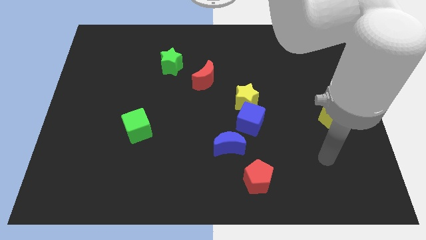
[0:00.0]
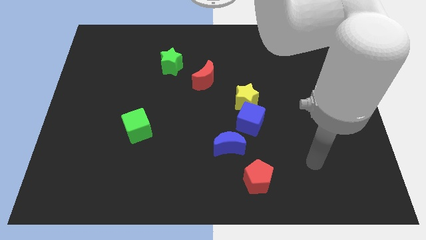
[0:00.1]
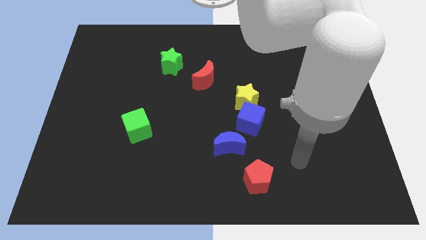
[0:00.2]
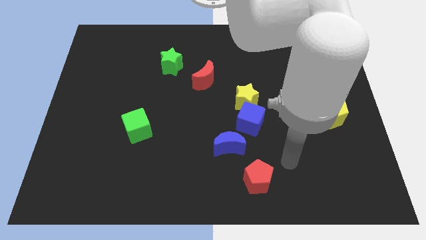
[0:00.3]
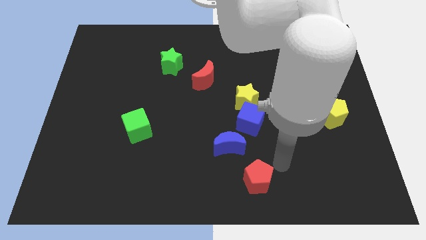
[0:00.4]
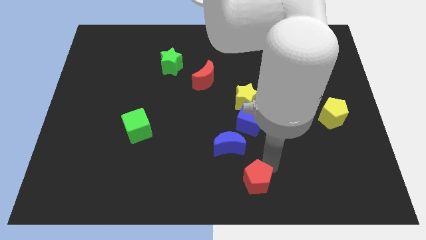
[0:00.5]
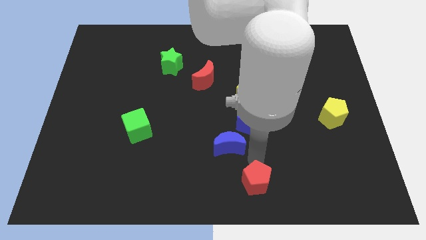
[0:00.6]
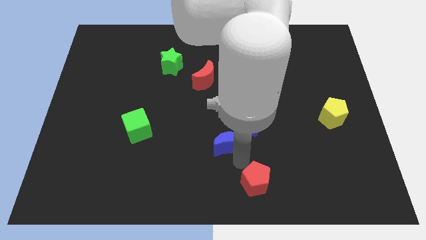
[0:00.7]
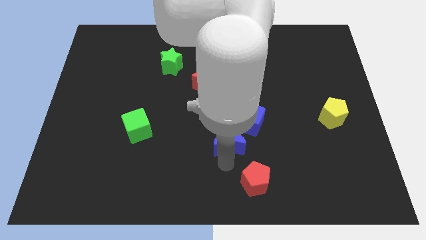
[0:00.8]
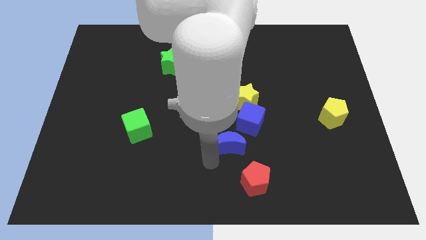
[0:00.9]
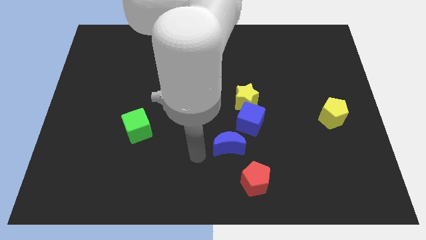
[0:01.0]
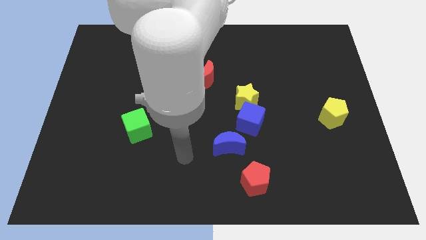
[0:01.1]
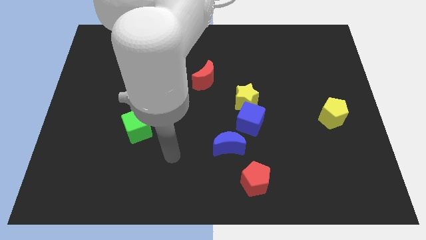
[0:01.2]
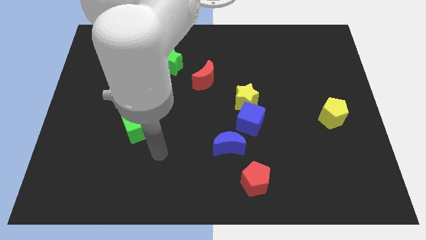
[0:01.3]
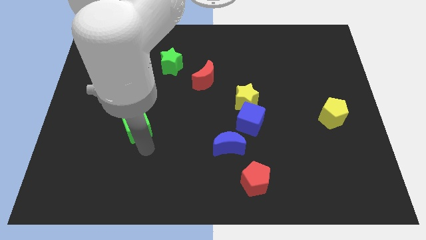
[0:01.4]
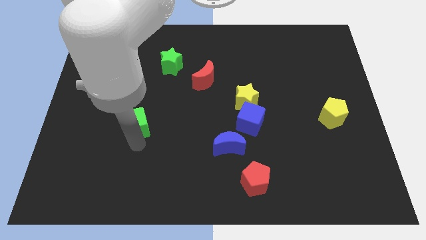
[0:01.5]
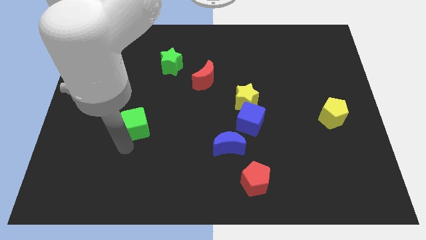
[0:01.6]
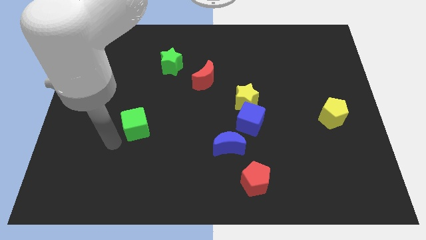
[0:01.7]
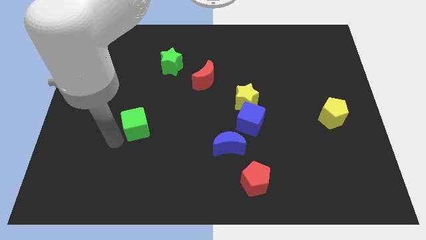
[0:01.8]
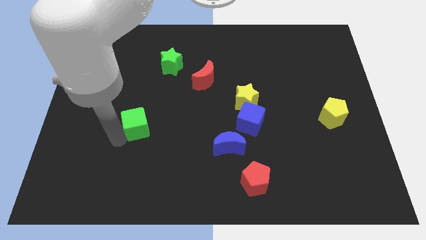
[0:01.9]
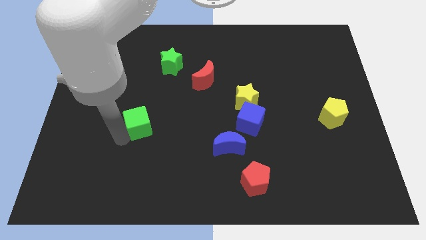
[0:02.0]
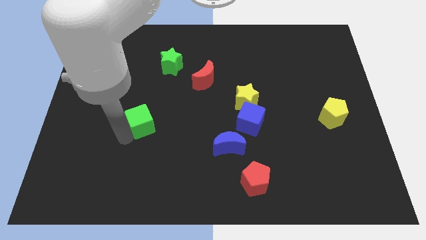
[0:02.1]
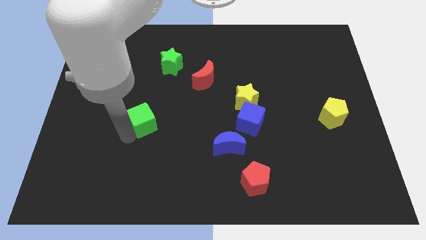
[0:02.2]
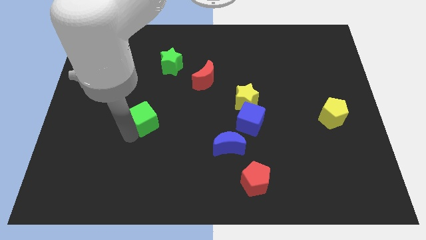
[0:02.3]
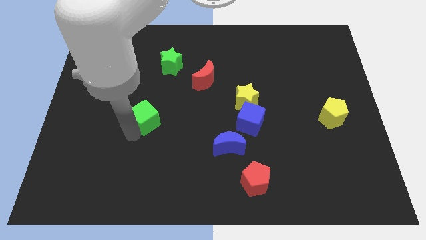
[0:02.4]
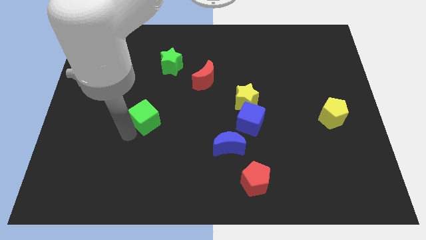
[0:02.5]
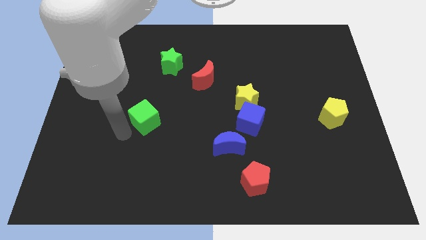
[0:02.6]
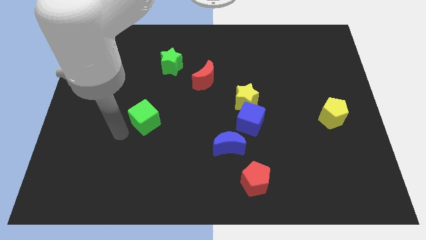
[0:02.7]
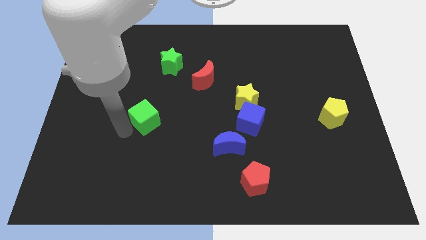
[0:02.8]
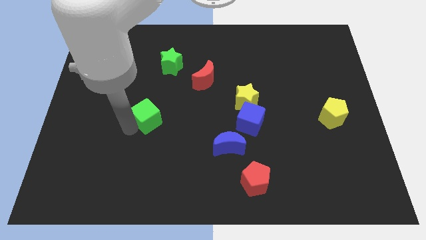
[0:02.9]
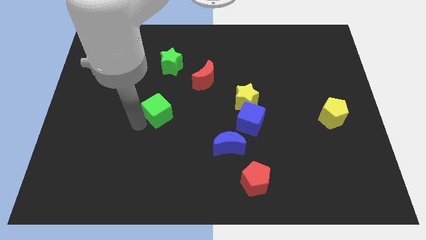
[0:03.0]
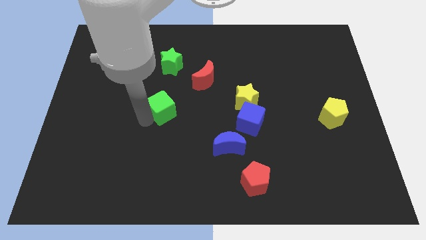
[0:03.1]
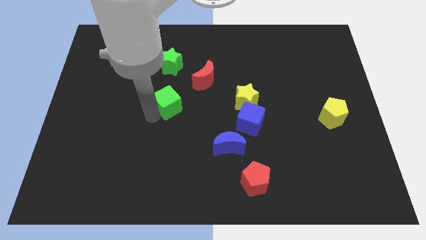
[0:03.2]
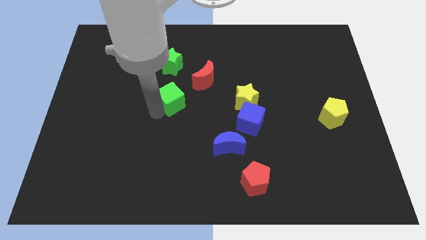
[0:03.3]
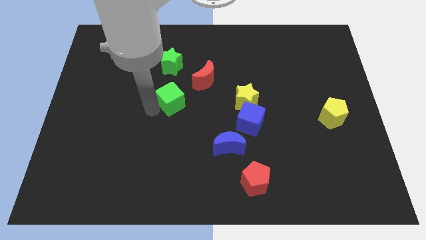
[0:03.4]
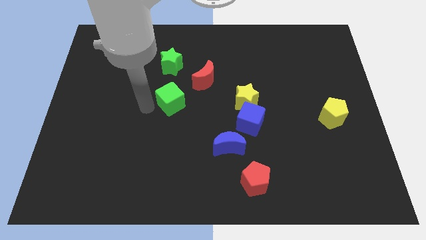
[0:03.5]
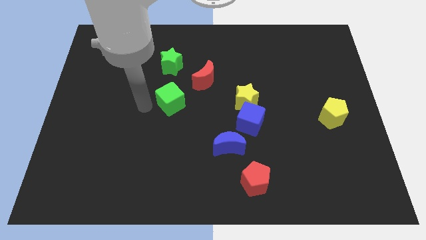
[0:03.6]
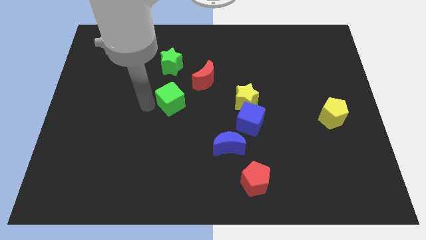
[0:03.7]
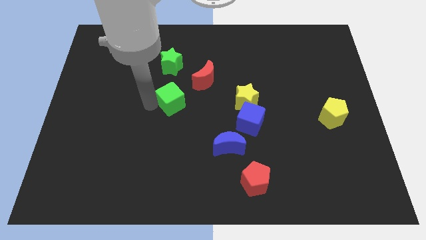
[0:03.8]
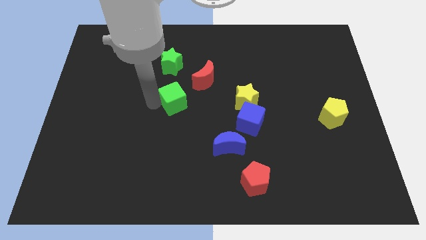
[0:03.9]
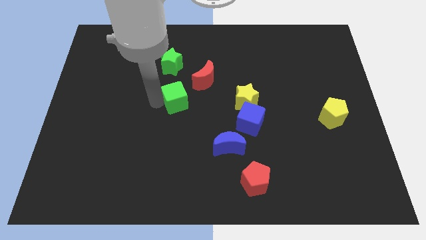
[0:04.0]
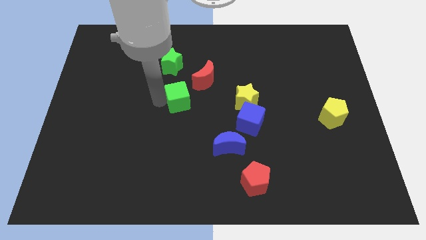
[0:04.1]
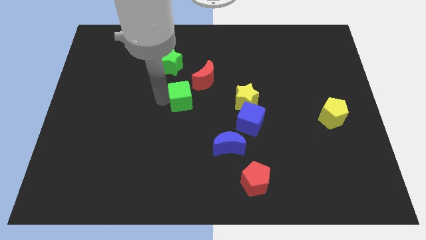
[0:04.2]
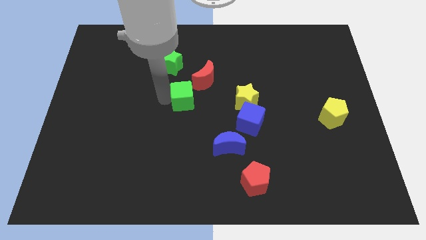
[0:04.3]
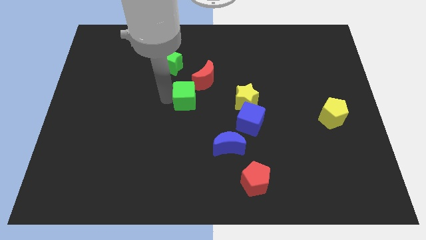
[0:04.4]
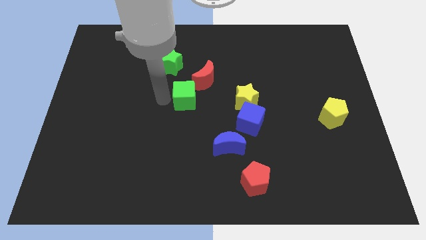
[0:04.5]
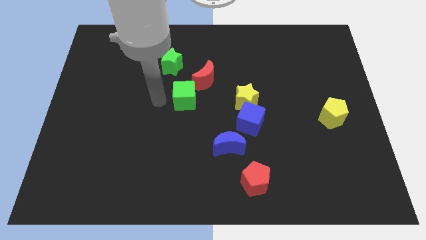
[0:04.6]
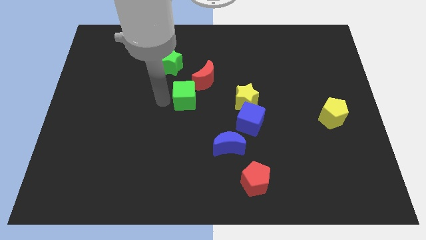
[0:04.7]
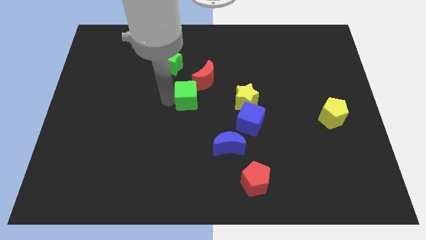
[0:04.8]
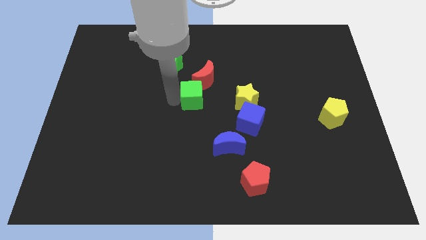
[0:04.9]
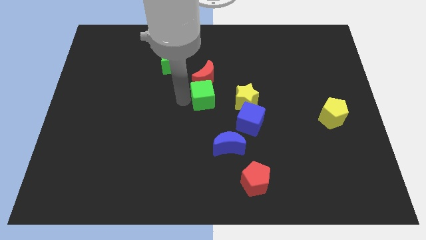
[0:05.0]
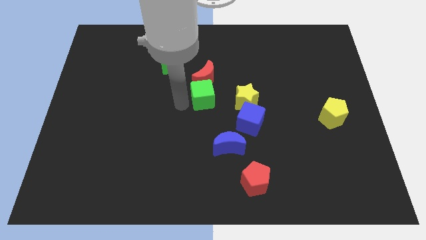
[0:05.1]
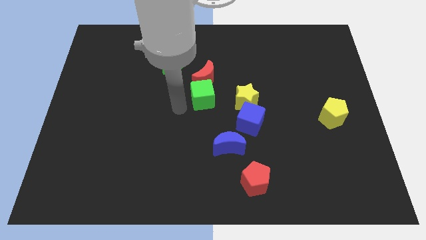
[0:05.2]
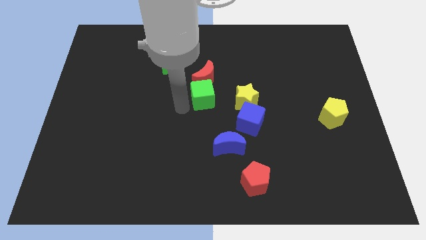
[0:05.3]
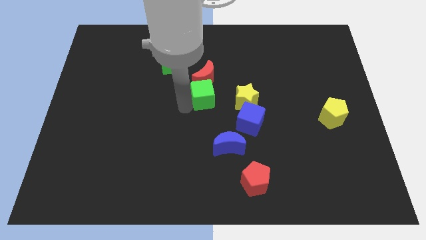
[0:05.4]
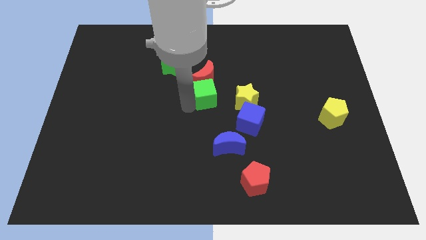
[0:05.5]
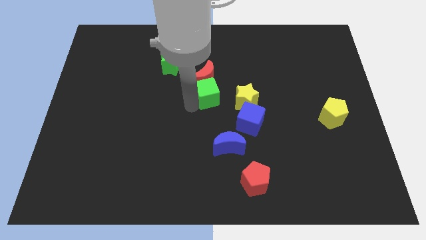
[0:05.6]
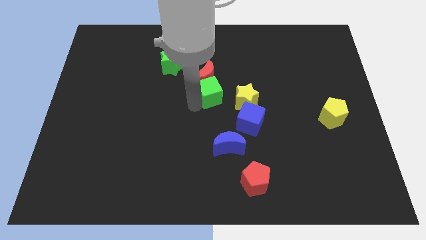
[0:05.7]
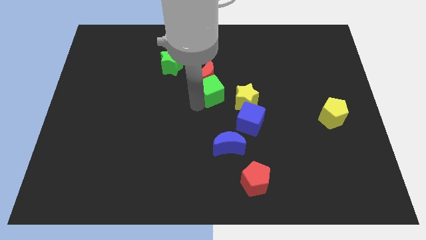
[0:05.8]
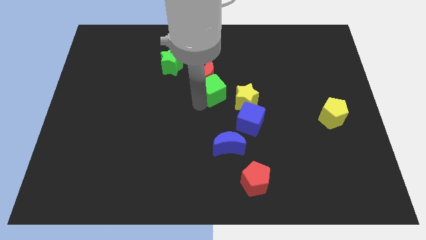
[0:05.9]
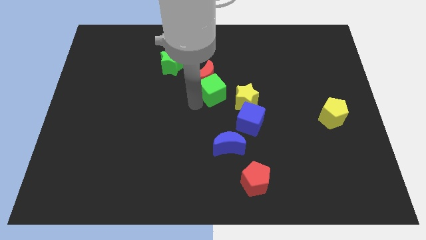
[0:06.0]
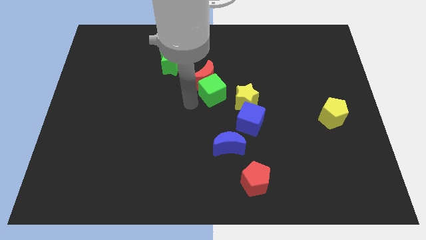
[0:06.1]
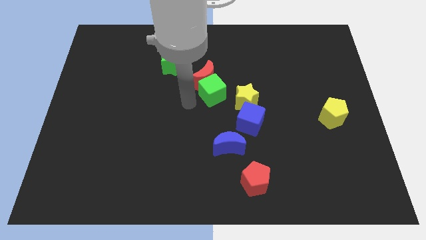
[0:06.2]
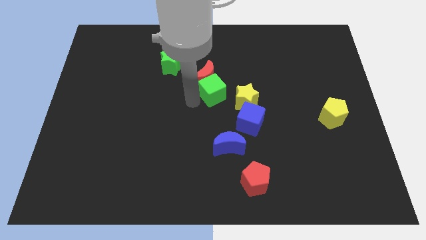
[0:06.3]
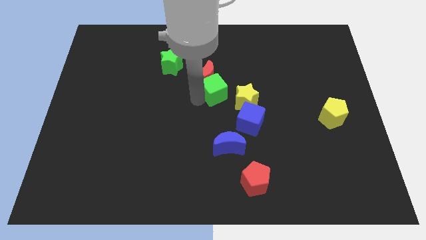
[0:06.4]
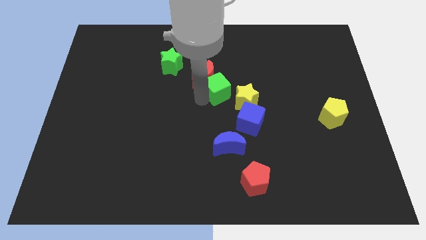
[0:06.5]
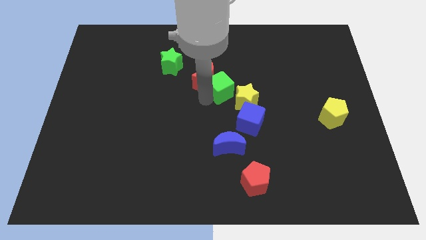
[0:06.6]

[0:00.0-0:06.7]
push the green cube up and then to the right

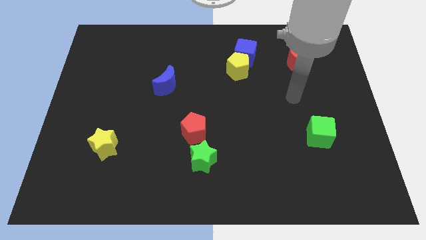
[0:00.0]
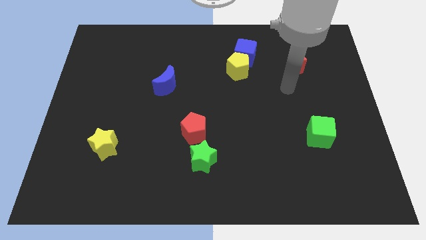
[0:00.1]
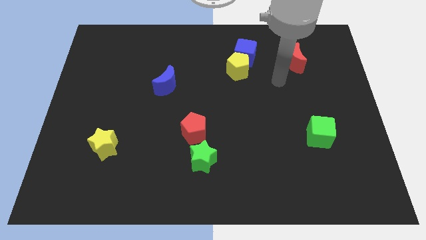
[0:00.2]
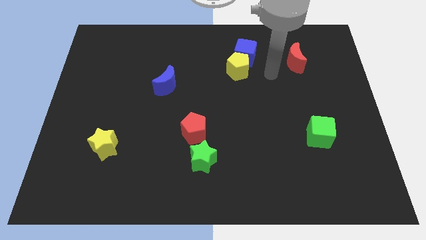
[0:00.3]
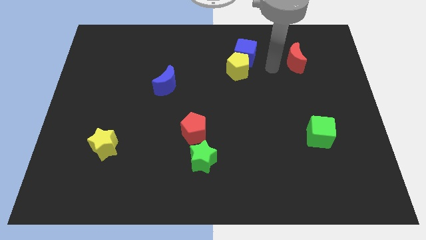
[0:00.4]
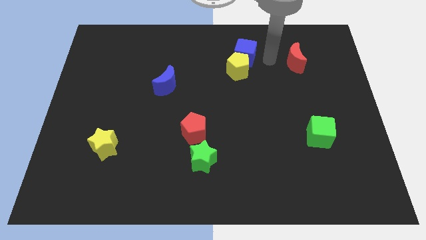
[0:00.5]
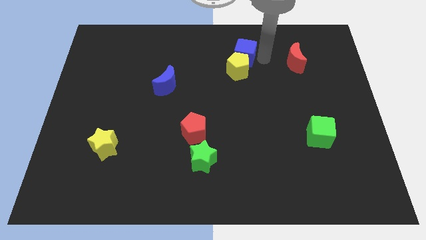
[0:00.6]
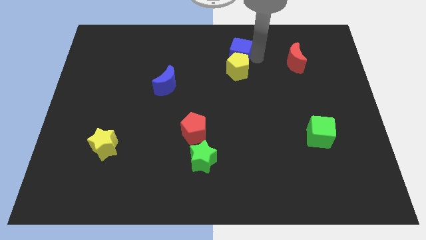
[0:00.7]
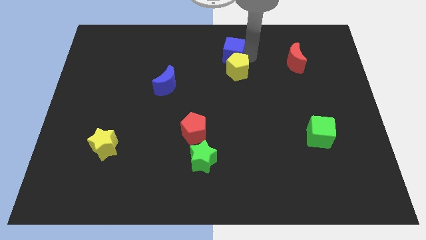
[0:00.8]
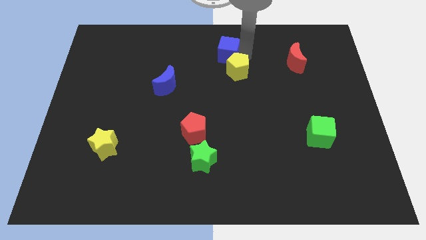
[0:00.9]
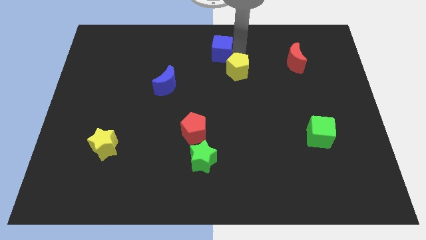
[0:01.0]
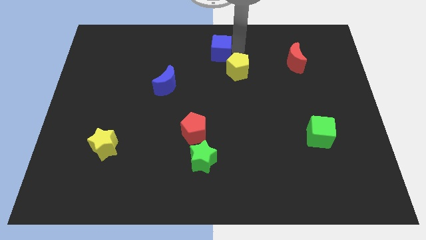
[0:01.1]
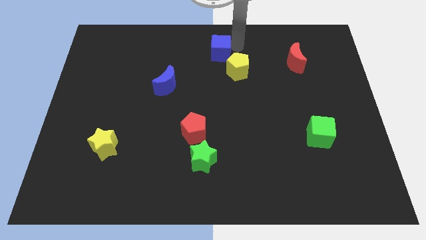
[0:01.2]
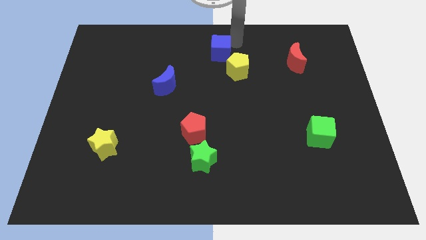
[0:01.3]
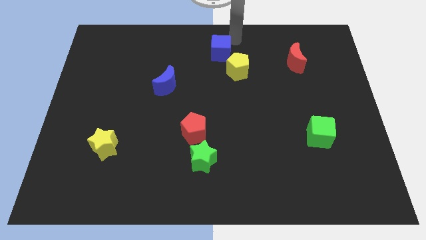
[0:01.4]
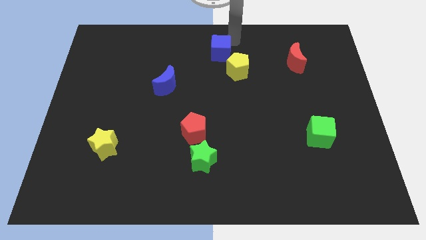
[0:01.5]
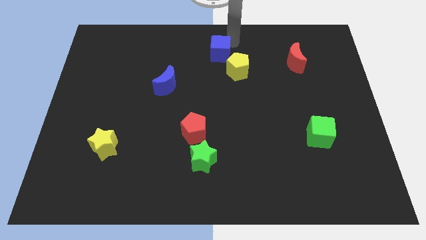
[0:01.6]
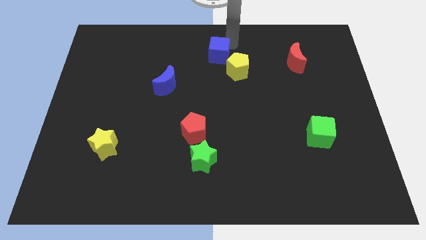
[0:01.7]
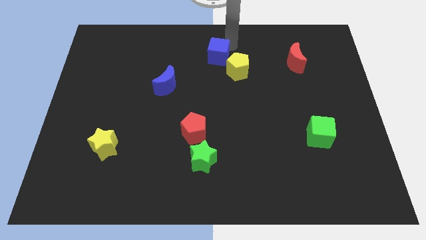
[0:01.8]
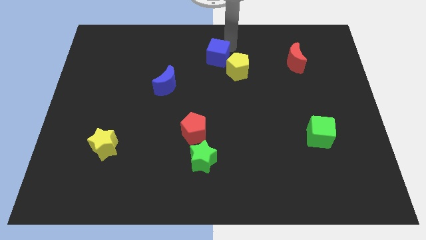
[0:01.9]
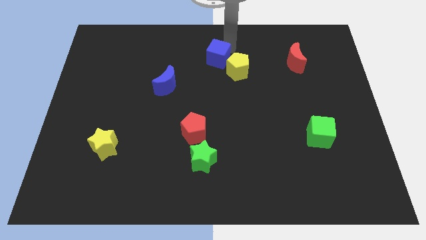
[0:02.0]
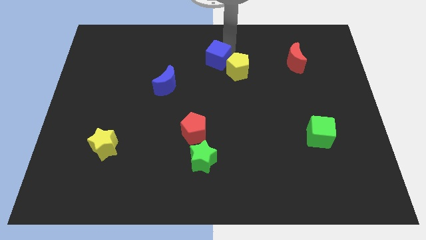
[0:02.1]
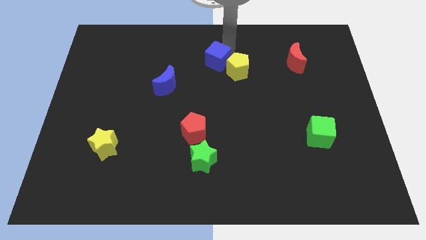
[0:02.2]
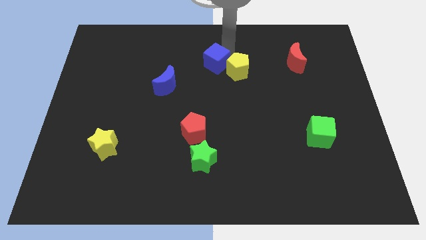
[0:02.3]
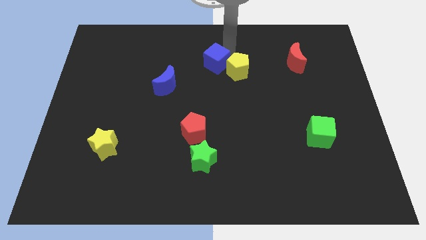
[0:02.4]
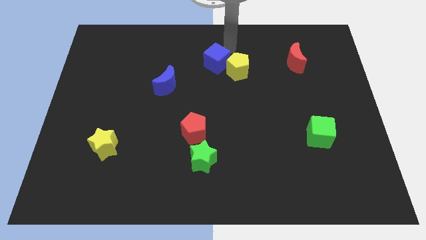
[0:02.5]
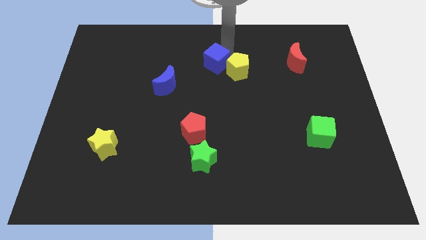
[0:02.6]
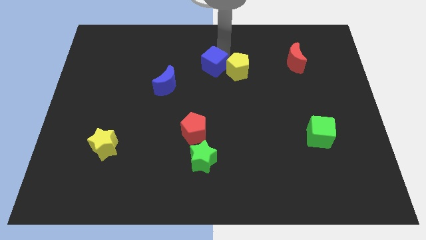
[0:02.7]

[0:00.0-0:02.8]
slightly move the blue cube down and then left
